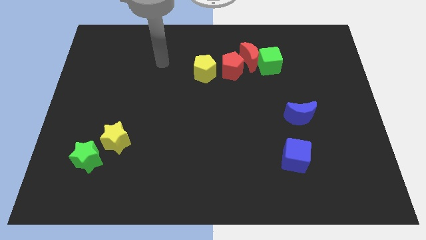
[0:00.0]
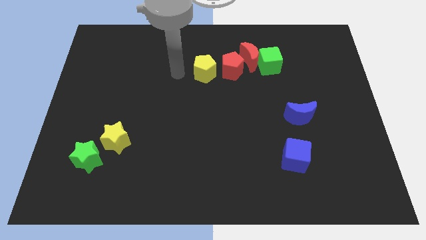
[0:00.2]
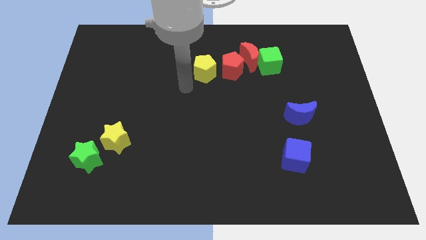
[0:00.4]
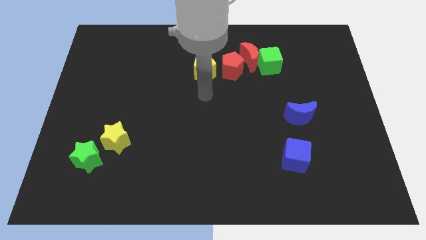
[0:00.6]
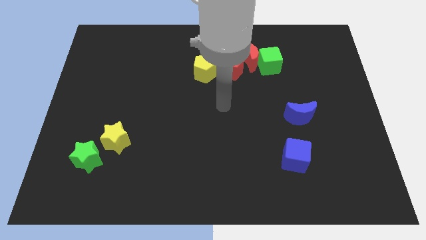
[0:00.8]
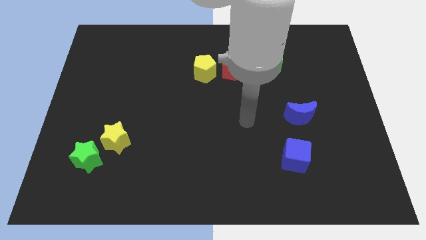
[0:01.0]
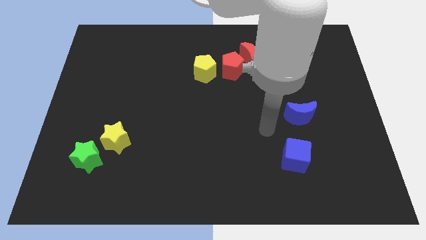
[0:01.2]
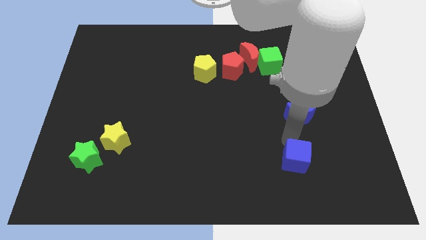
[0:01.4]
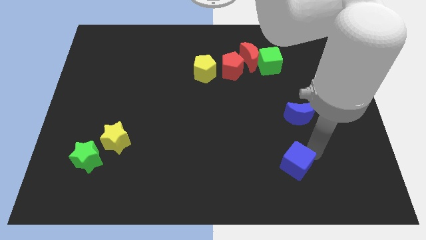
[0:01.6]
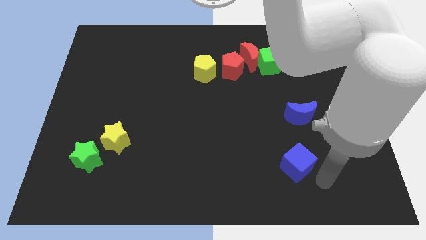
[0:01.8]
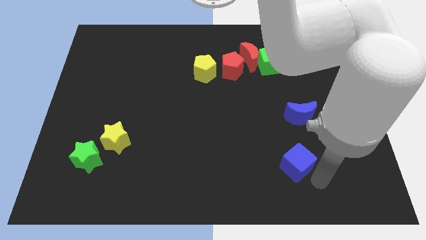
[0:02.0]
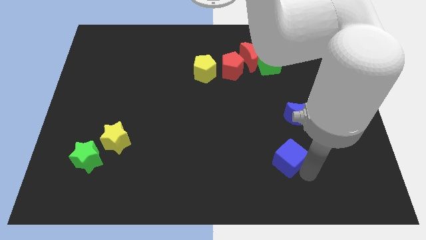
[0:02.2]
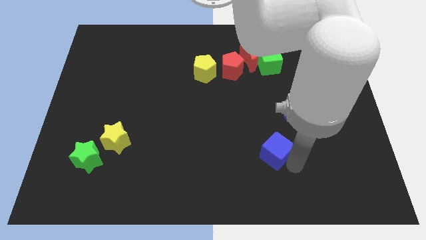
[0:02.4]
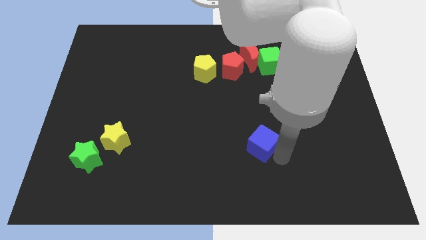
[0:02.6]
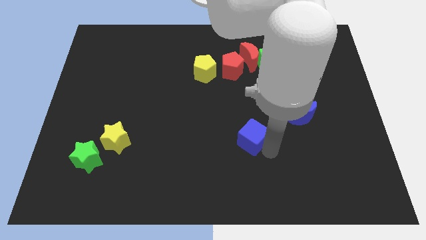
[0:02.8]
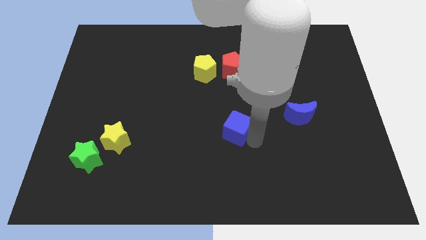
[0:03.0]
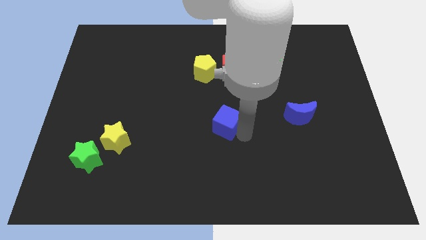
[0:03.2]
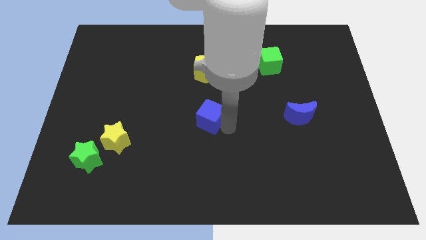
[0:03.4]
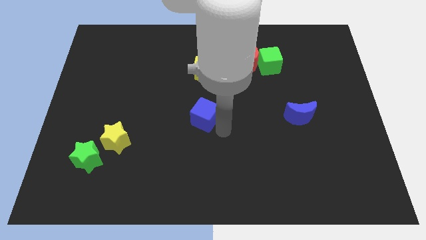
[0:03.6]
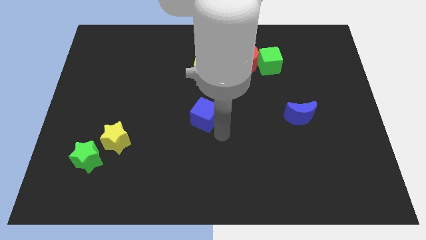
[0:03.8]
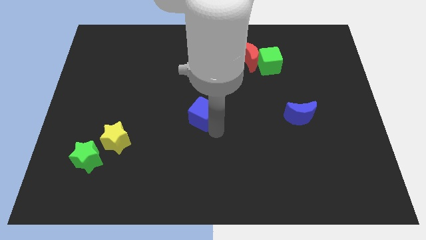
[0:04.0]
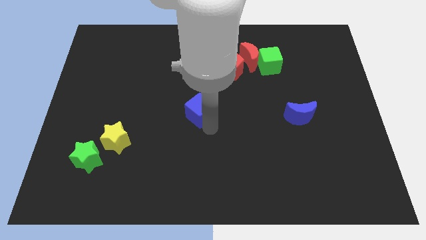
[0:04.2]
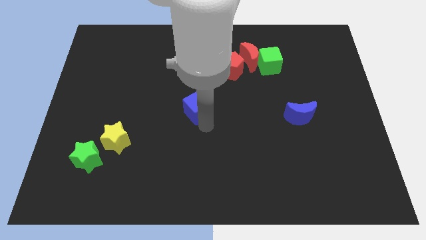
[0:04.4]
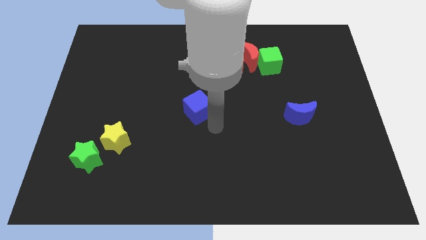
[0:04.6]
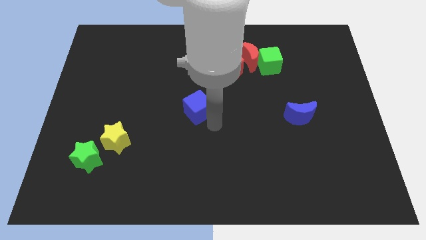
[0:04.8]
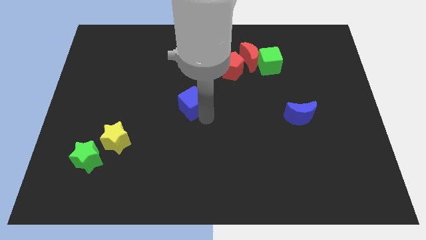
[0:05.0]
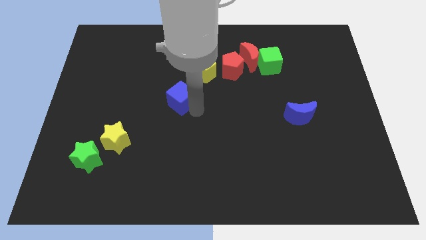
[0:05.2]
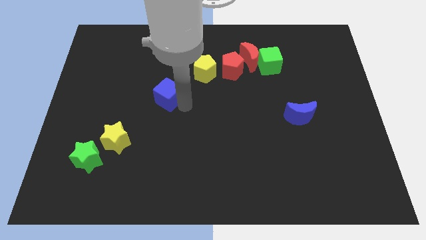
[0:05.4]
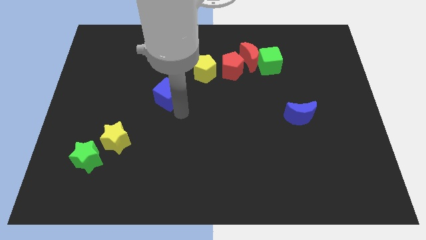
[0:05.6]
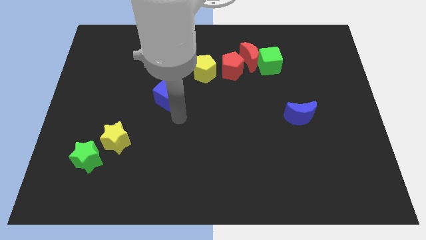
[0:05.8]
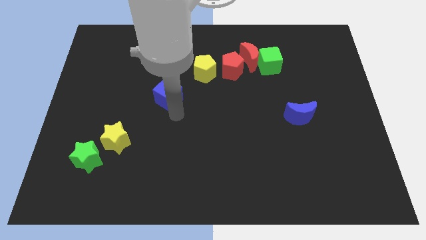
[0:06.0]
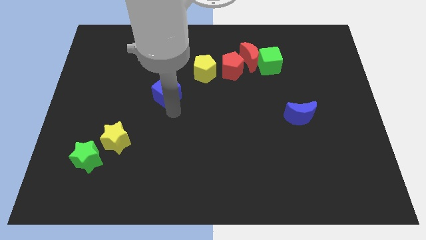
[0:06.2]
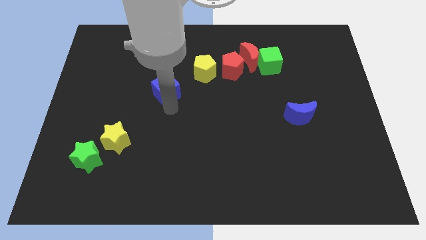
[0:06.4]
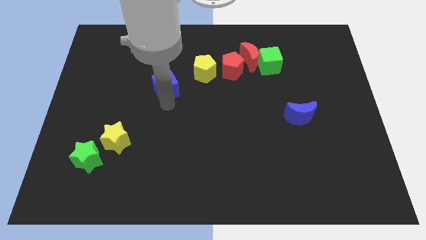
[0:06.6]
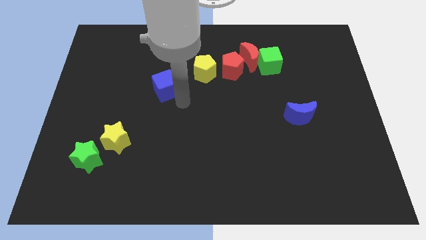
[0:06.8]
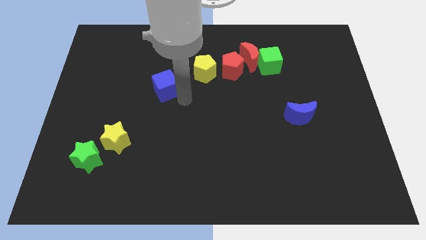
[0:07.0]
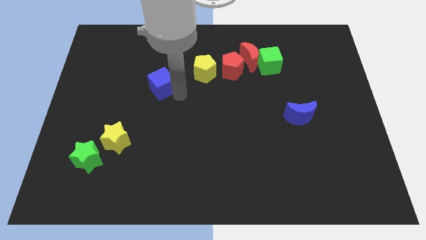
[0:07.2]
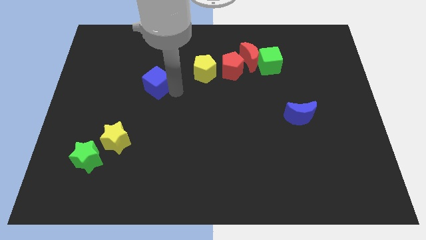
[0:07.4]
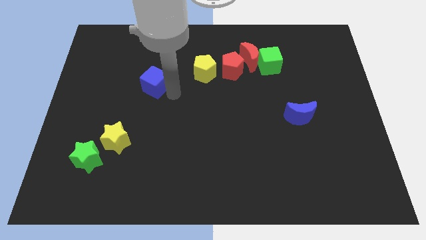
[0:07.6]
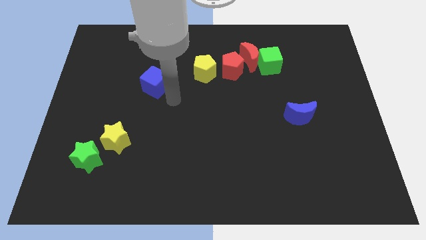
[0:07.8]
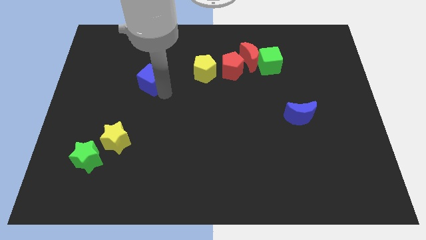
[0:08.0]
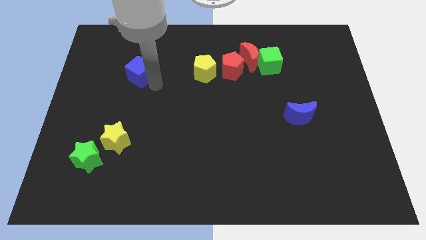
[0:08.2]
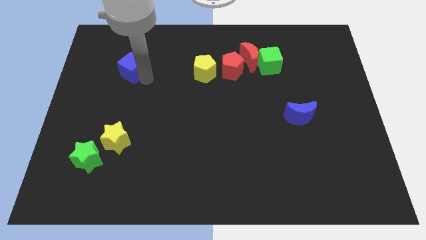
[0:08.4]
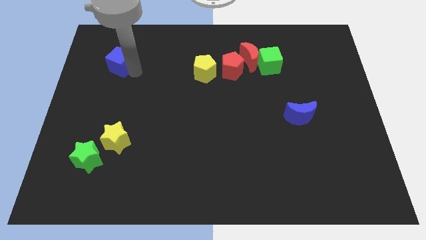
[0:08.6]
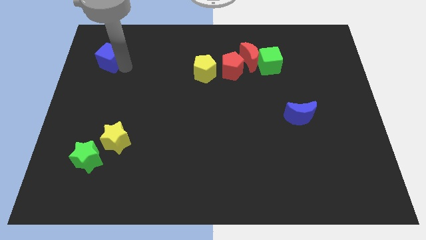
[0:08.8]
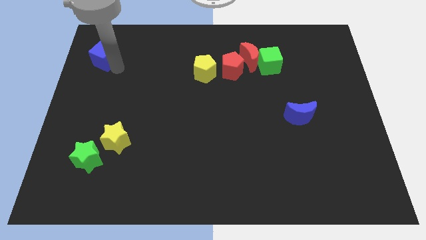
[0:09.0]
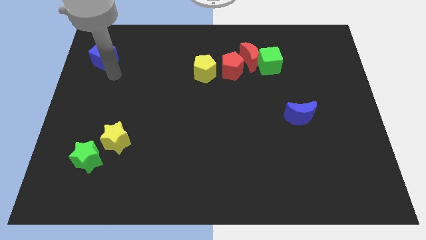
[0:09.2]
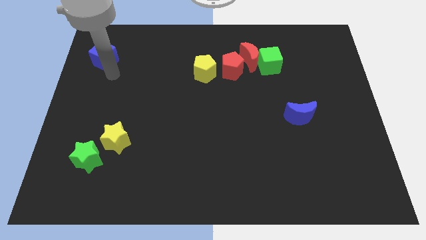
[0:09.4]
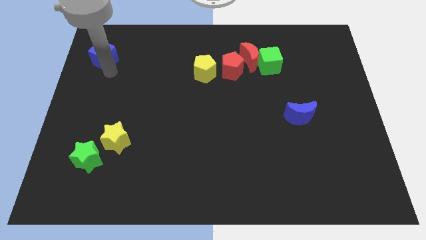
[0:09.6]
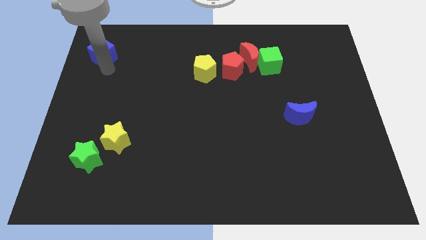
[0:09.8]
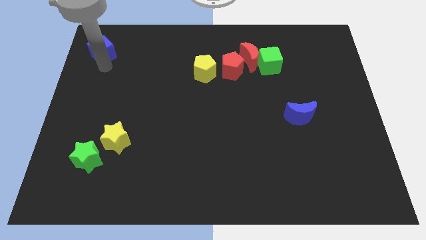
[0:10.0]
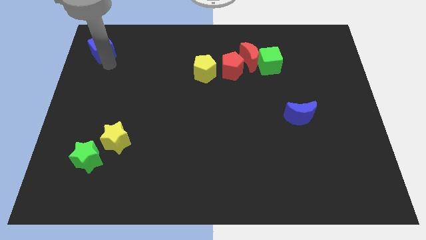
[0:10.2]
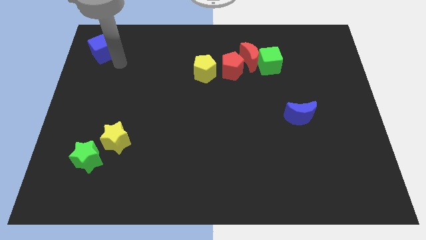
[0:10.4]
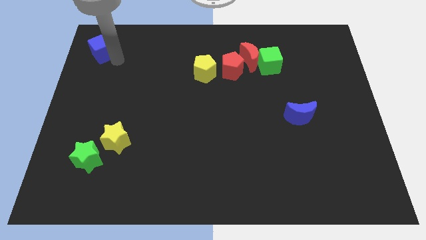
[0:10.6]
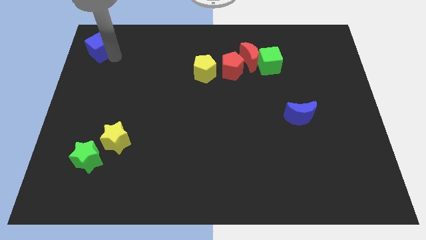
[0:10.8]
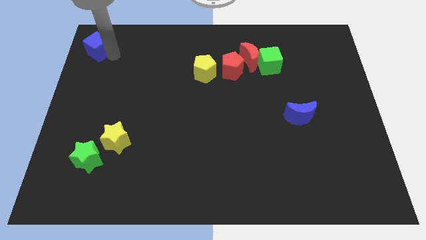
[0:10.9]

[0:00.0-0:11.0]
put the blue cube to the top left corner

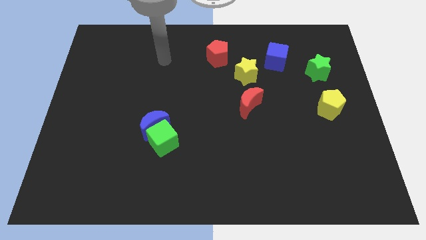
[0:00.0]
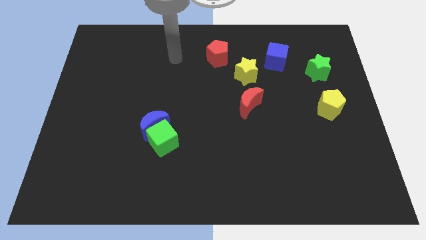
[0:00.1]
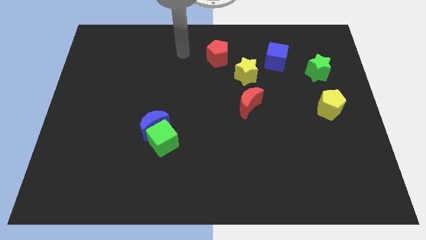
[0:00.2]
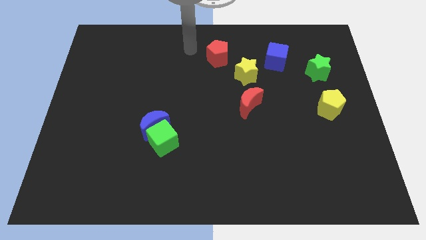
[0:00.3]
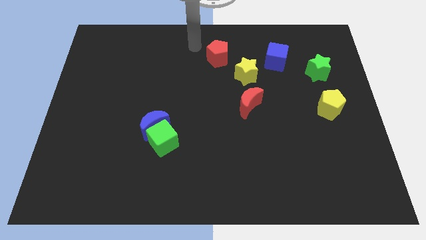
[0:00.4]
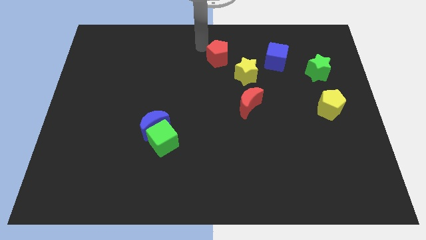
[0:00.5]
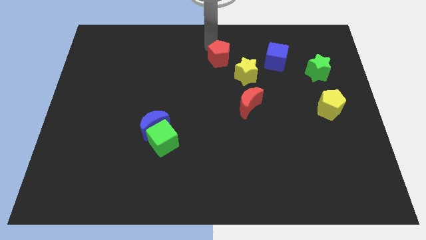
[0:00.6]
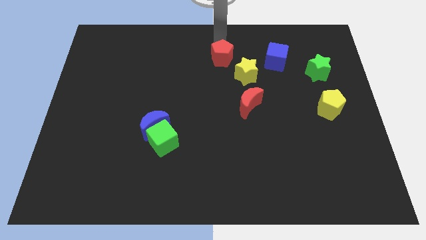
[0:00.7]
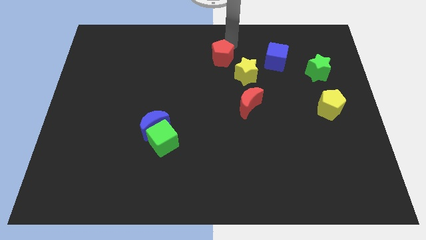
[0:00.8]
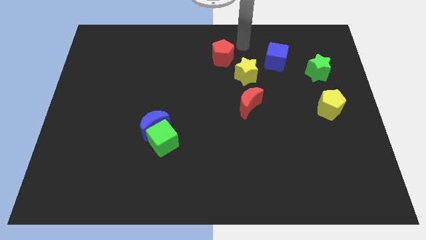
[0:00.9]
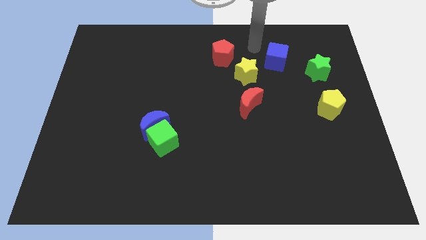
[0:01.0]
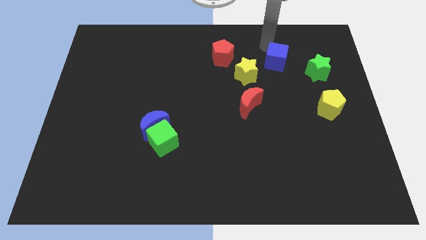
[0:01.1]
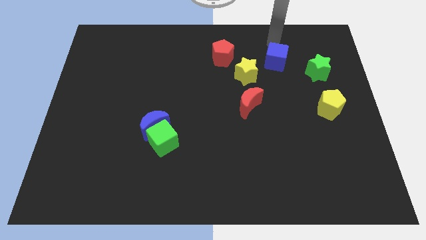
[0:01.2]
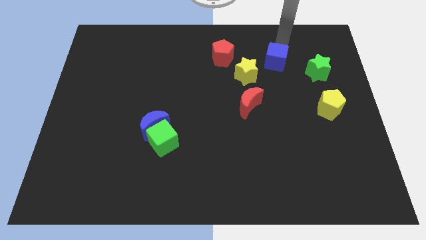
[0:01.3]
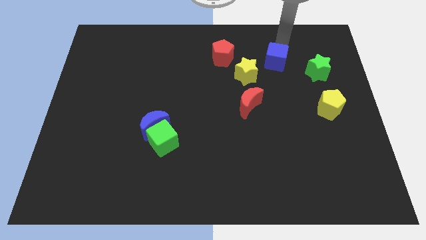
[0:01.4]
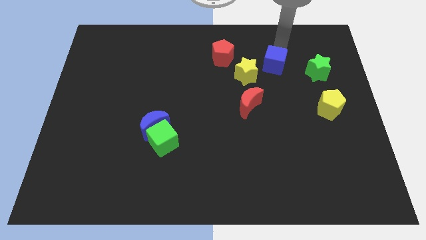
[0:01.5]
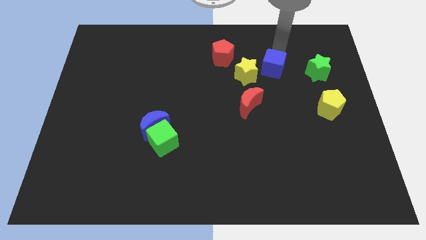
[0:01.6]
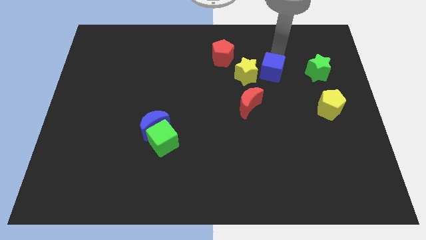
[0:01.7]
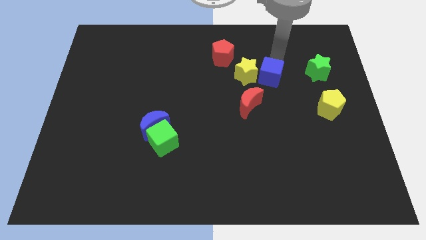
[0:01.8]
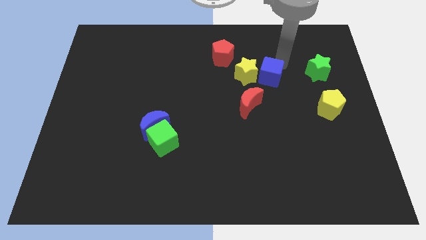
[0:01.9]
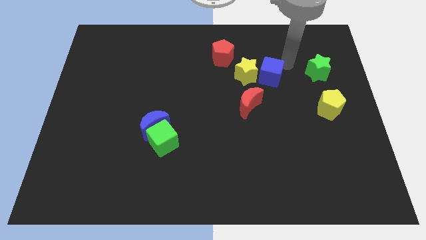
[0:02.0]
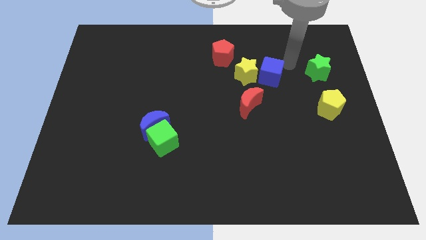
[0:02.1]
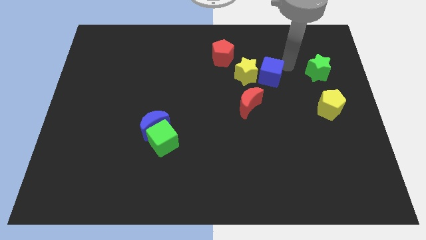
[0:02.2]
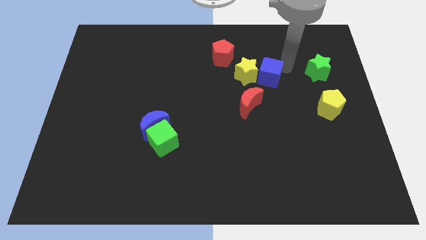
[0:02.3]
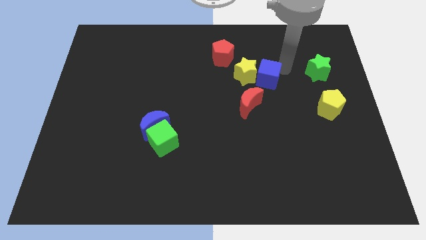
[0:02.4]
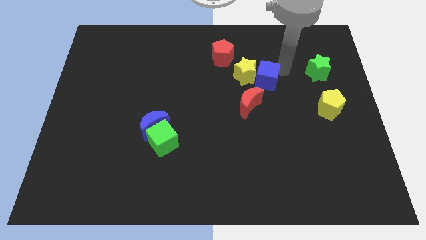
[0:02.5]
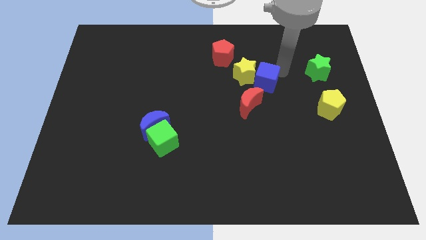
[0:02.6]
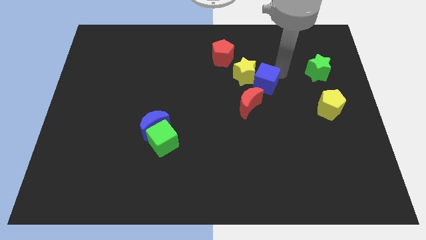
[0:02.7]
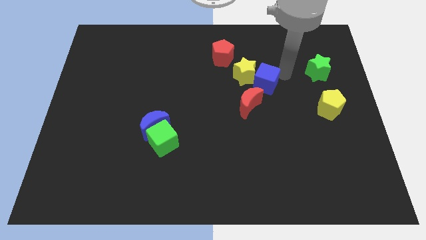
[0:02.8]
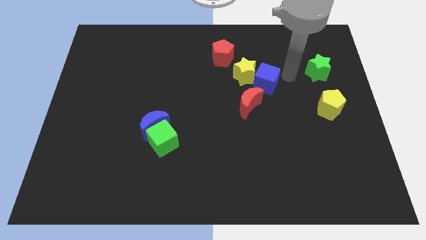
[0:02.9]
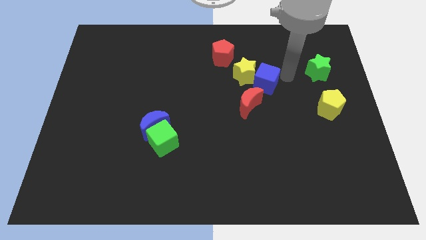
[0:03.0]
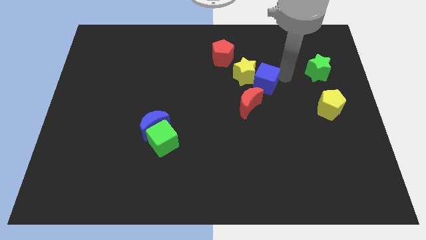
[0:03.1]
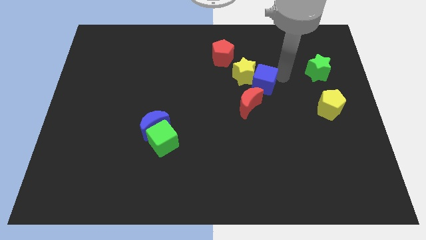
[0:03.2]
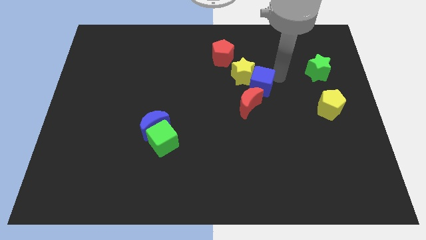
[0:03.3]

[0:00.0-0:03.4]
slide the blue cube to the middle
